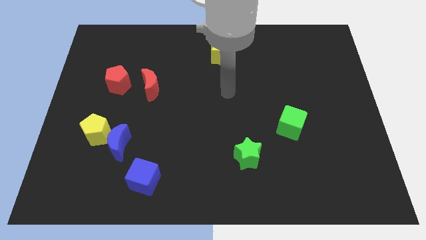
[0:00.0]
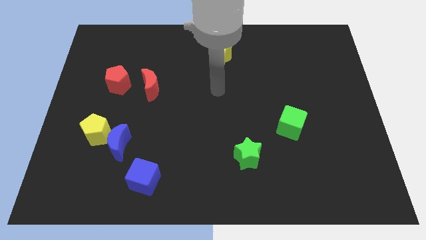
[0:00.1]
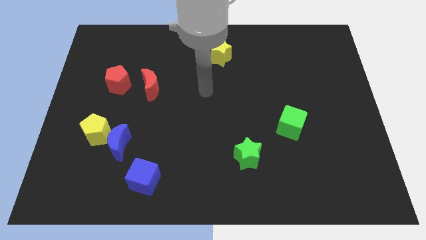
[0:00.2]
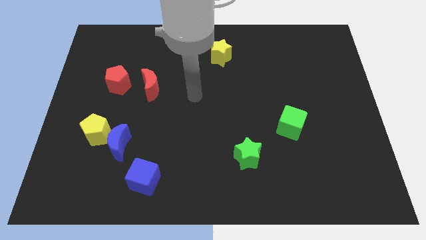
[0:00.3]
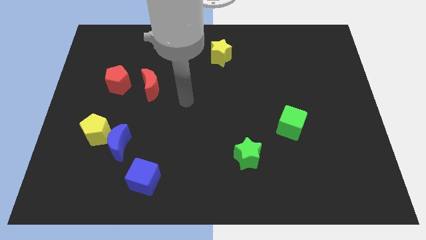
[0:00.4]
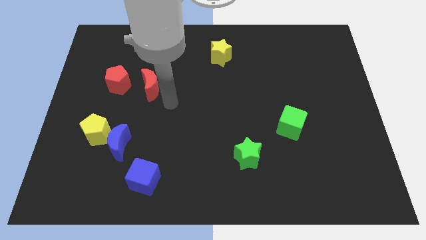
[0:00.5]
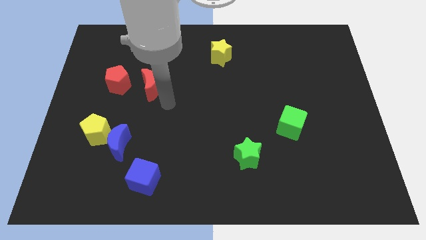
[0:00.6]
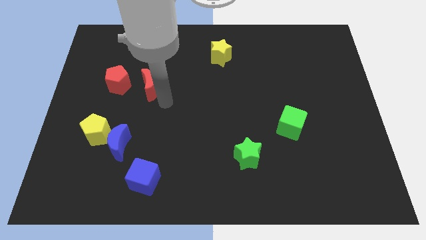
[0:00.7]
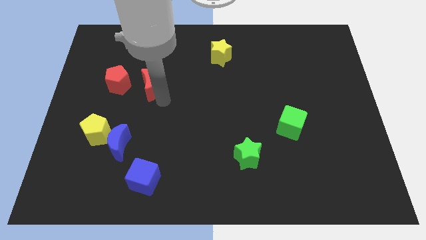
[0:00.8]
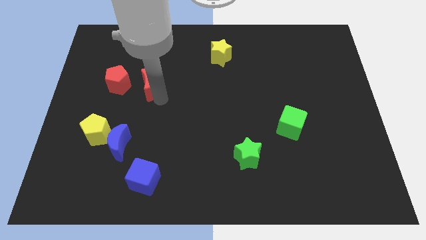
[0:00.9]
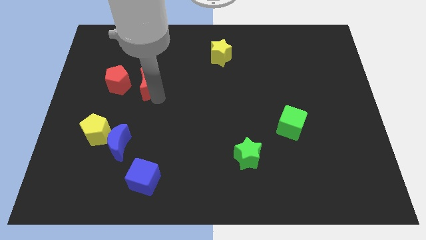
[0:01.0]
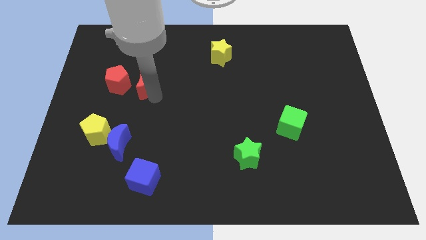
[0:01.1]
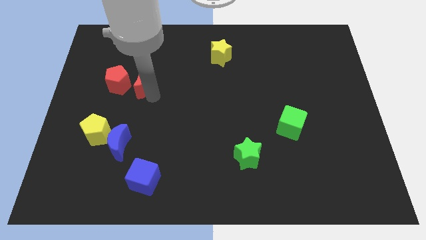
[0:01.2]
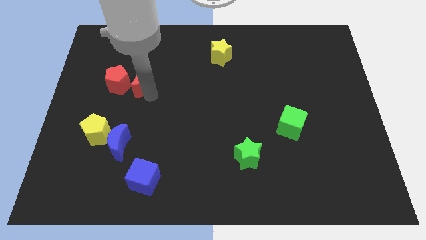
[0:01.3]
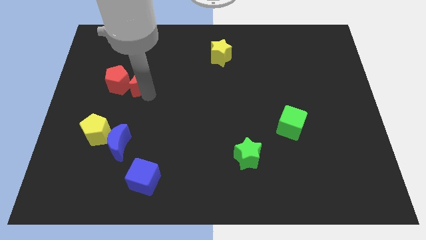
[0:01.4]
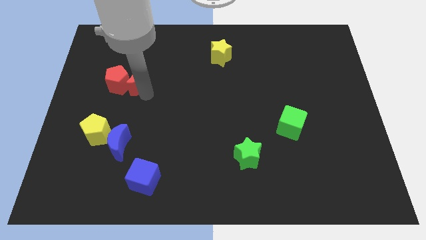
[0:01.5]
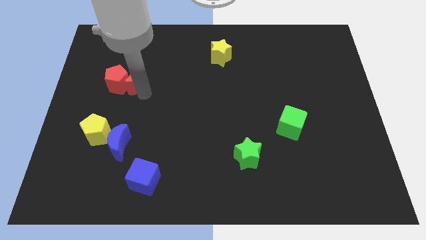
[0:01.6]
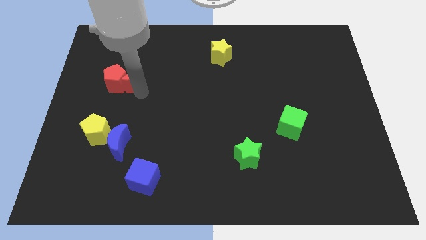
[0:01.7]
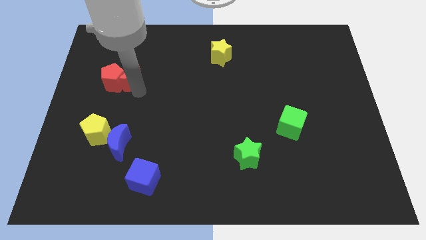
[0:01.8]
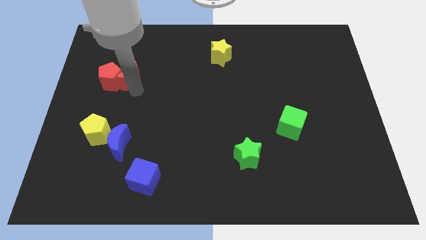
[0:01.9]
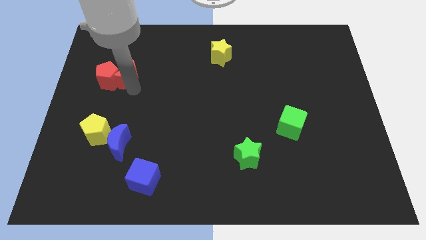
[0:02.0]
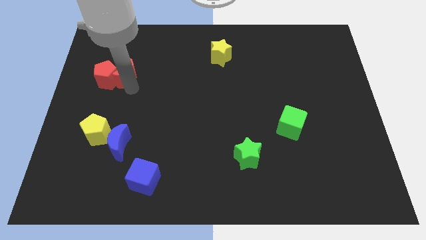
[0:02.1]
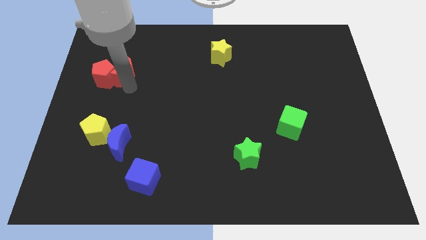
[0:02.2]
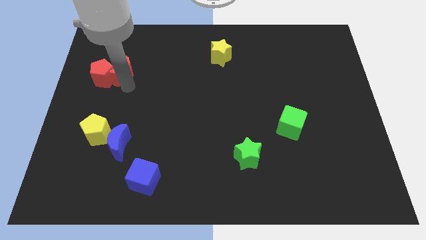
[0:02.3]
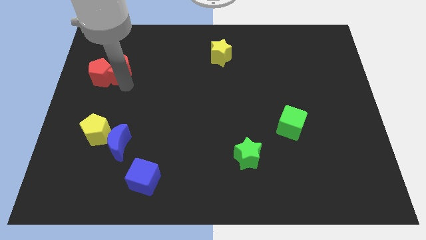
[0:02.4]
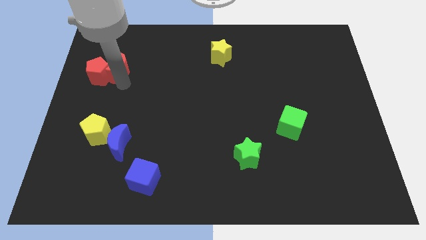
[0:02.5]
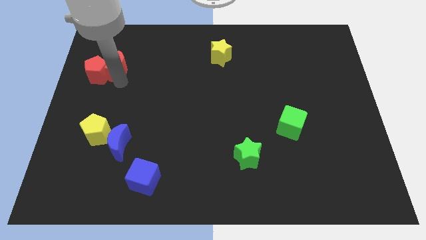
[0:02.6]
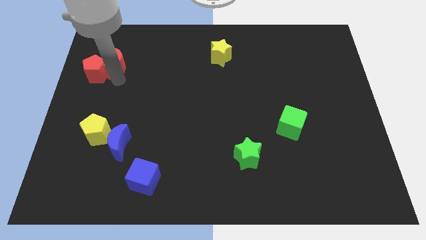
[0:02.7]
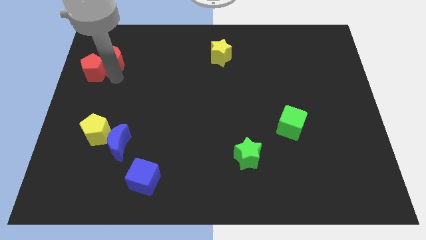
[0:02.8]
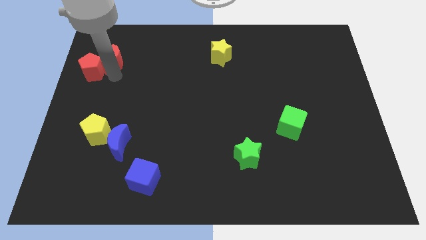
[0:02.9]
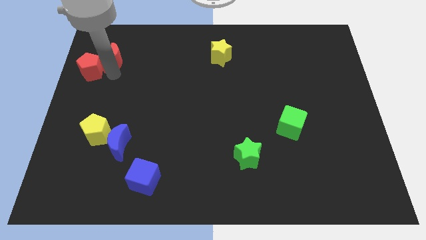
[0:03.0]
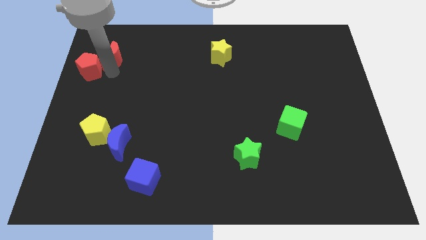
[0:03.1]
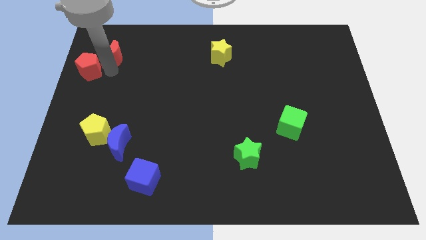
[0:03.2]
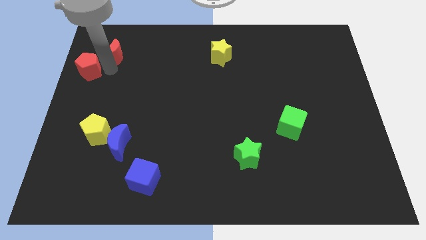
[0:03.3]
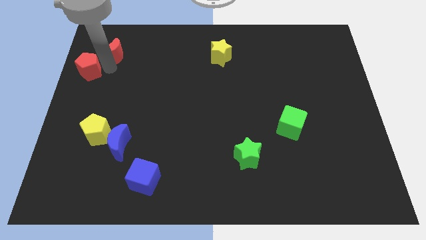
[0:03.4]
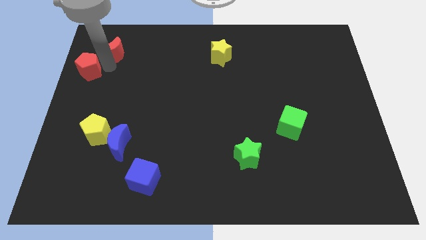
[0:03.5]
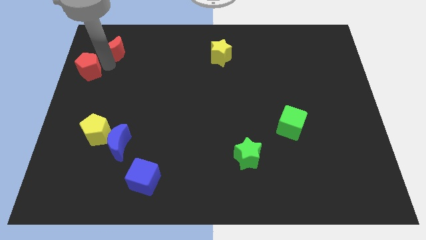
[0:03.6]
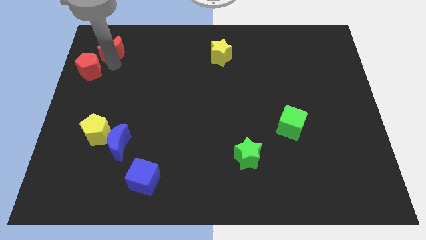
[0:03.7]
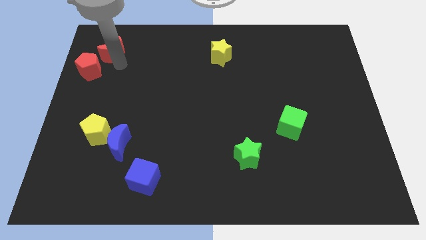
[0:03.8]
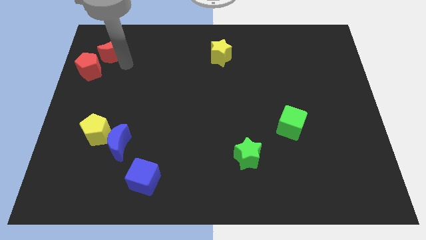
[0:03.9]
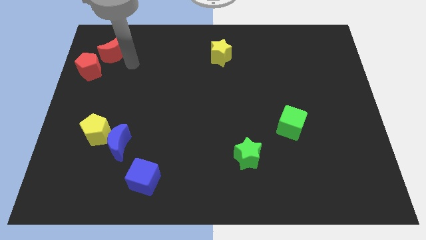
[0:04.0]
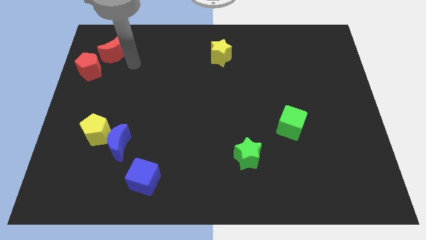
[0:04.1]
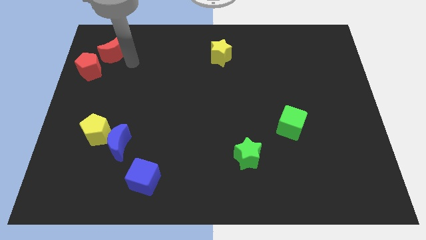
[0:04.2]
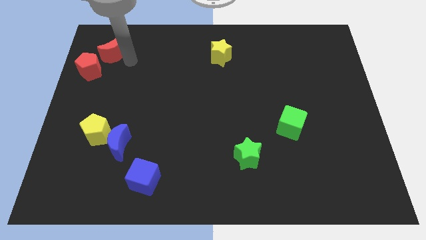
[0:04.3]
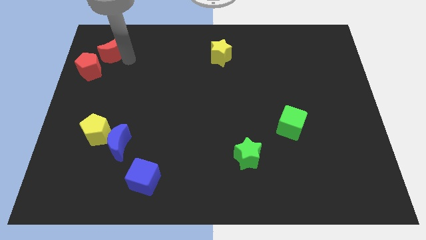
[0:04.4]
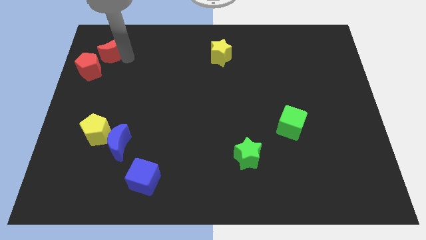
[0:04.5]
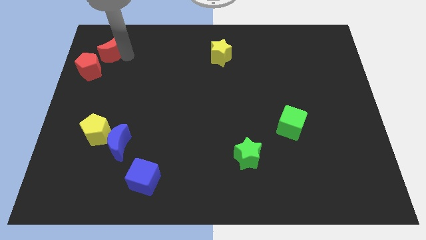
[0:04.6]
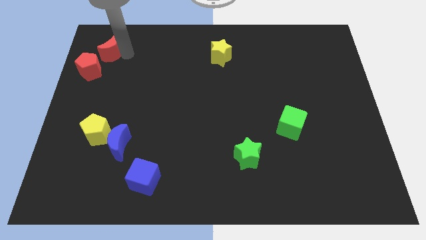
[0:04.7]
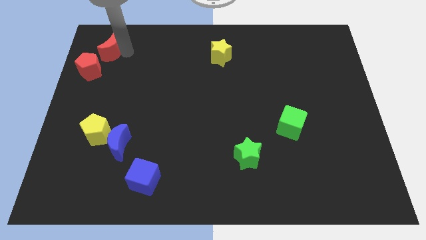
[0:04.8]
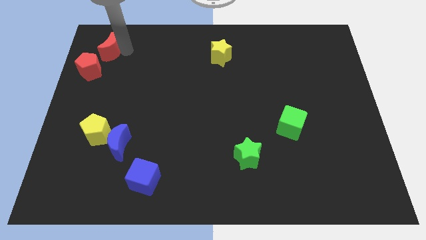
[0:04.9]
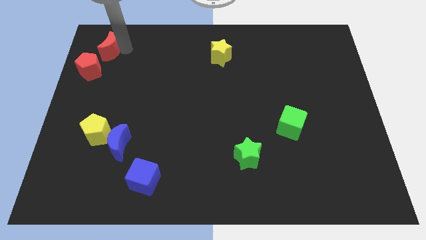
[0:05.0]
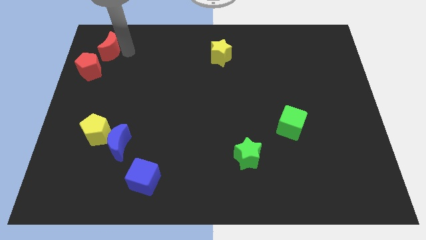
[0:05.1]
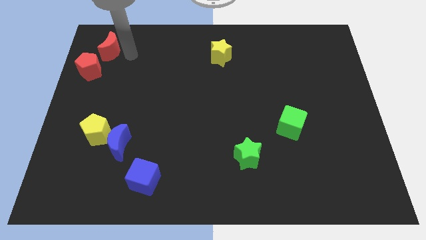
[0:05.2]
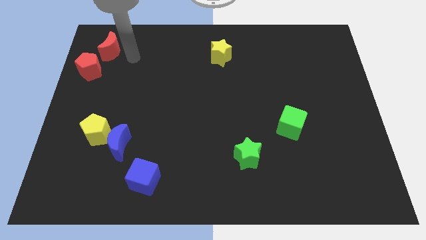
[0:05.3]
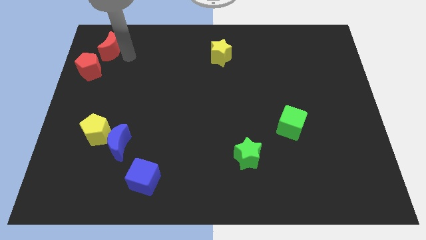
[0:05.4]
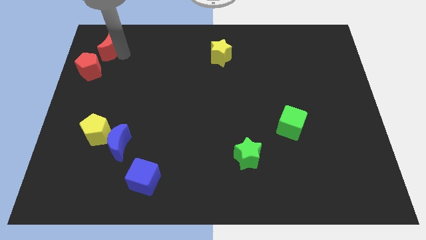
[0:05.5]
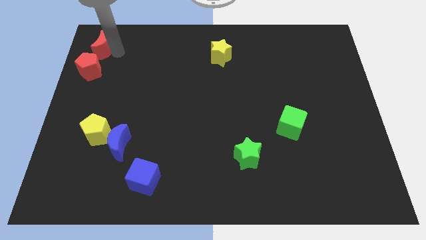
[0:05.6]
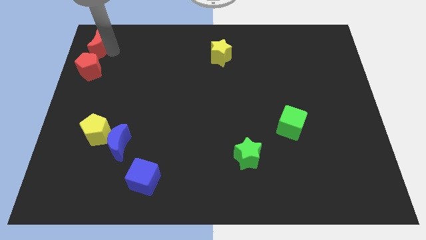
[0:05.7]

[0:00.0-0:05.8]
put the red moon to the top left

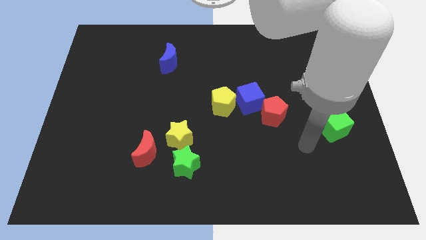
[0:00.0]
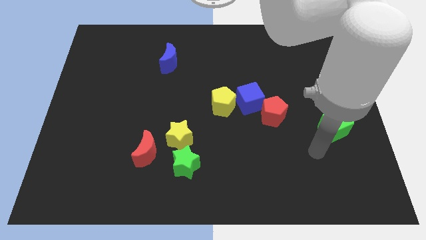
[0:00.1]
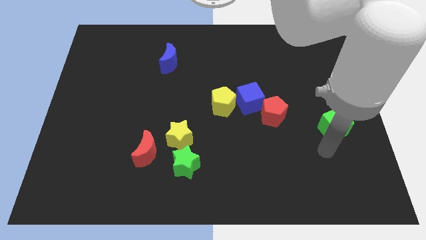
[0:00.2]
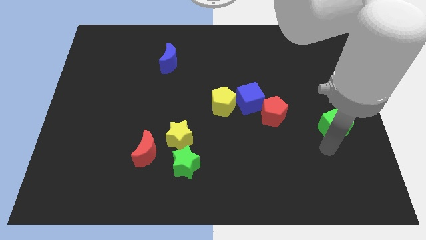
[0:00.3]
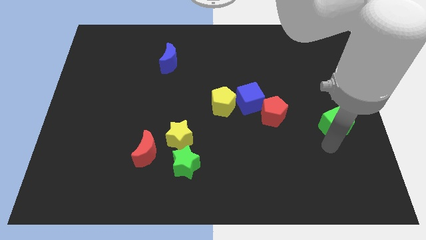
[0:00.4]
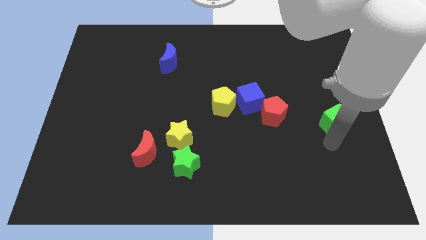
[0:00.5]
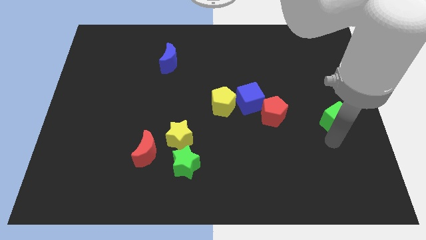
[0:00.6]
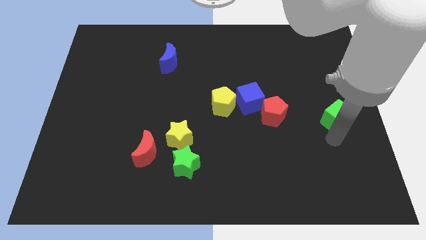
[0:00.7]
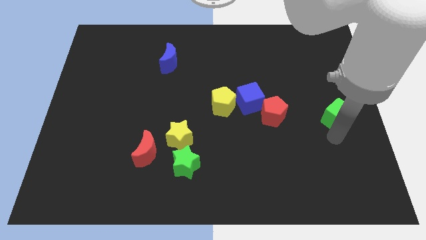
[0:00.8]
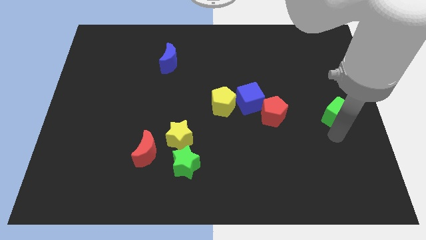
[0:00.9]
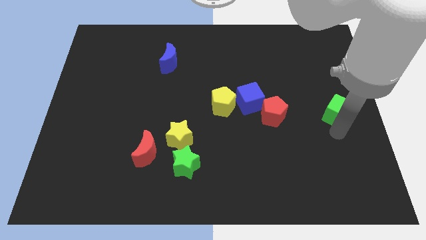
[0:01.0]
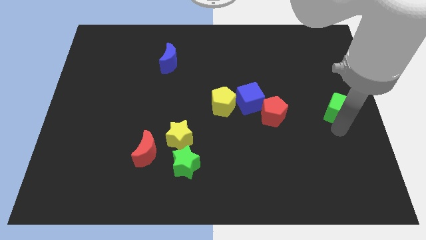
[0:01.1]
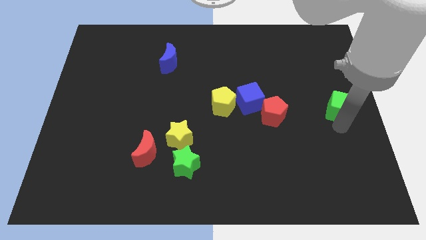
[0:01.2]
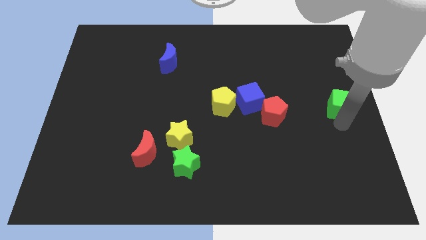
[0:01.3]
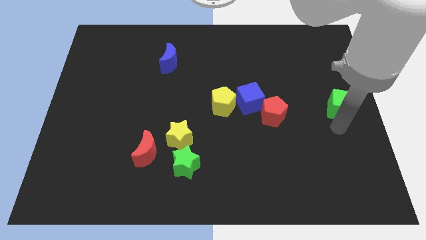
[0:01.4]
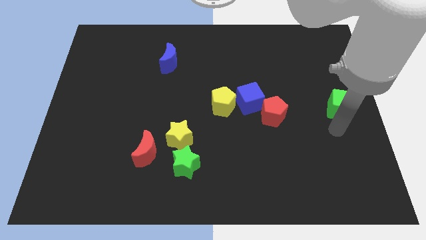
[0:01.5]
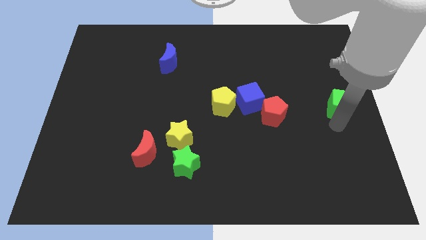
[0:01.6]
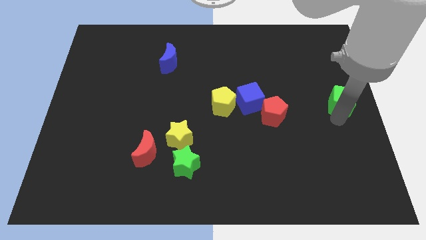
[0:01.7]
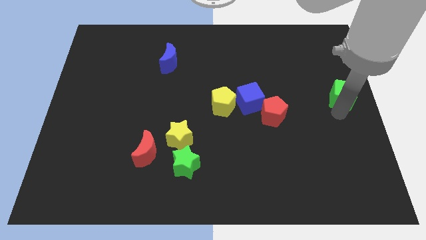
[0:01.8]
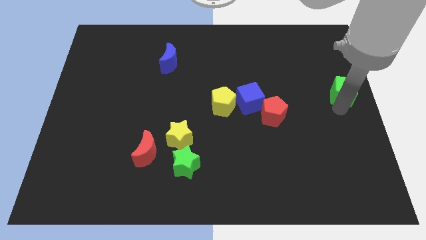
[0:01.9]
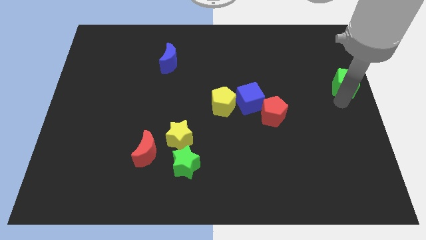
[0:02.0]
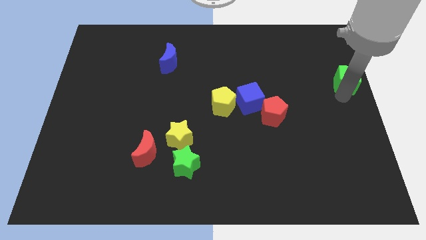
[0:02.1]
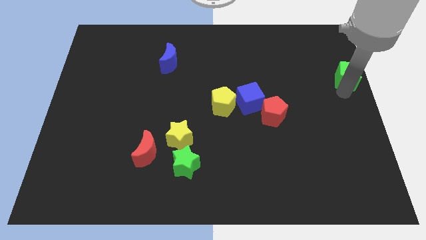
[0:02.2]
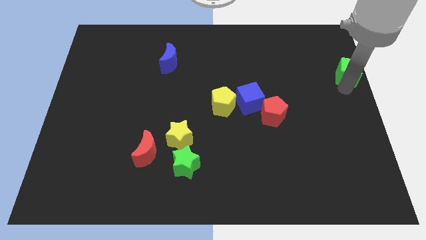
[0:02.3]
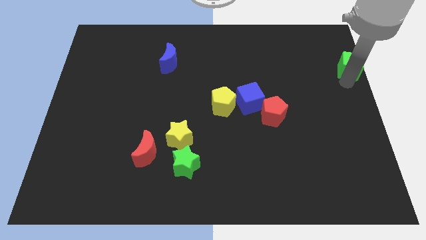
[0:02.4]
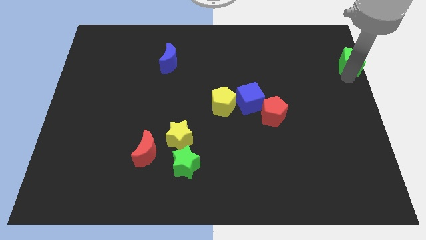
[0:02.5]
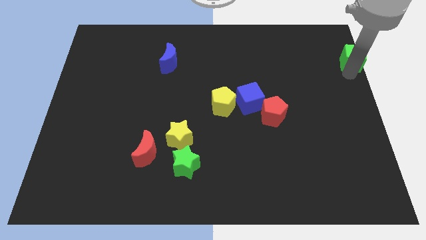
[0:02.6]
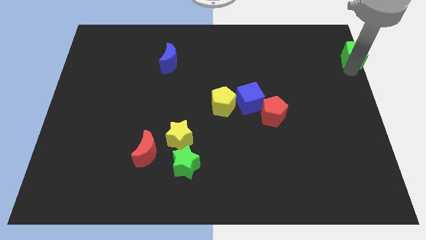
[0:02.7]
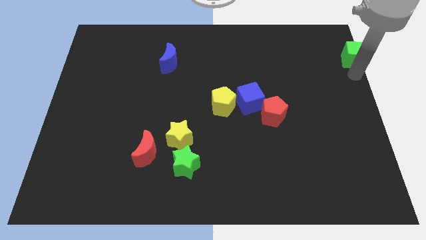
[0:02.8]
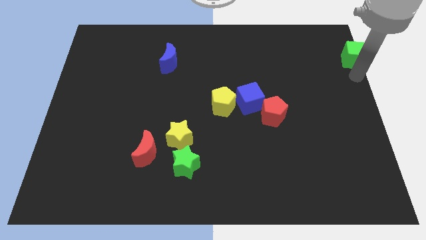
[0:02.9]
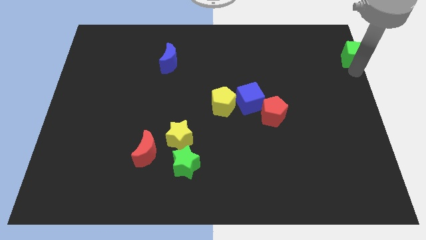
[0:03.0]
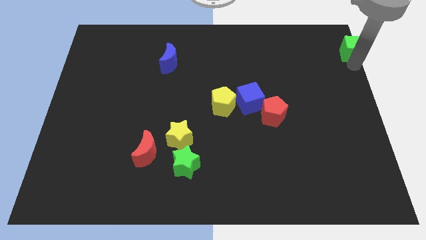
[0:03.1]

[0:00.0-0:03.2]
slide the green cube to the top right corner
